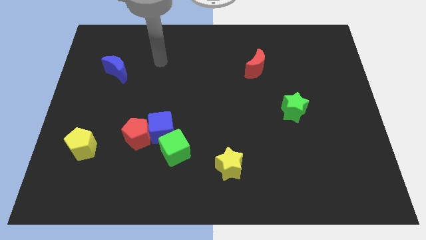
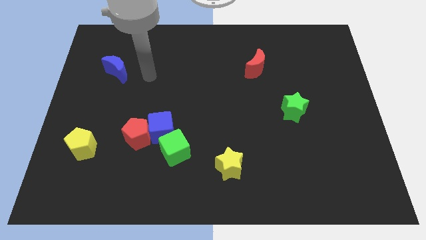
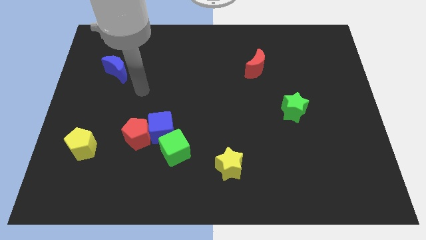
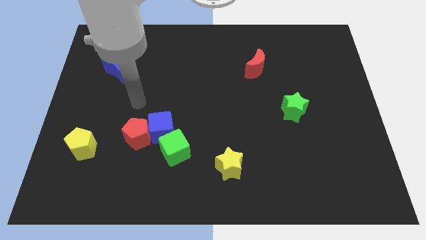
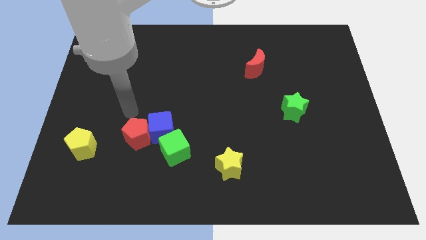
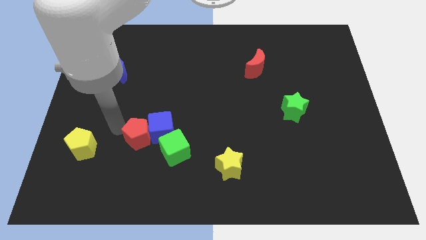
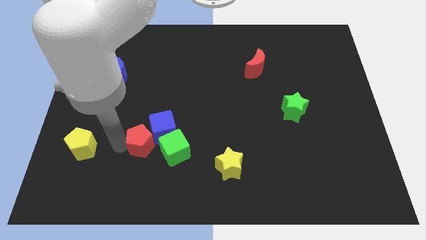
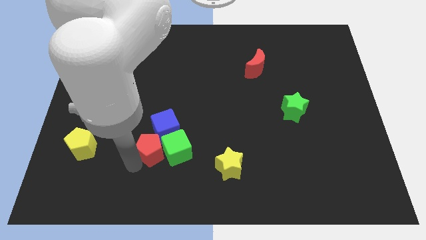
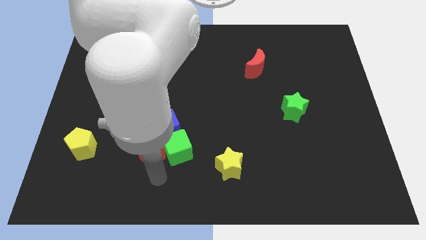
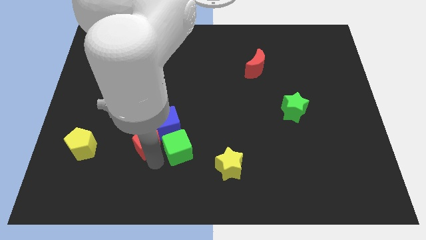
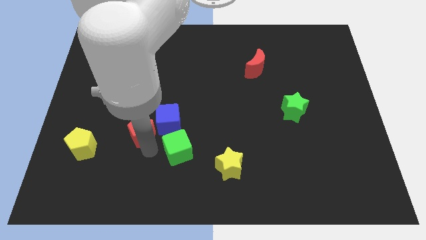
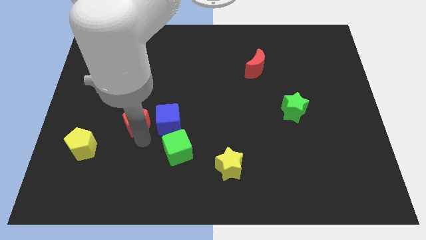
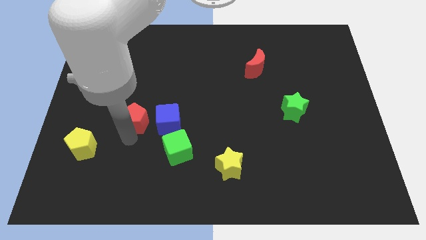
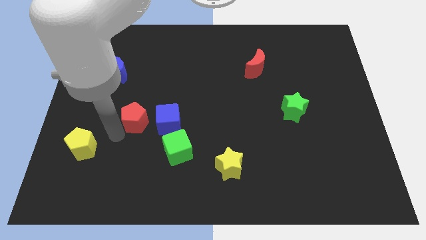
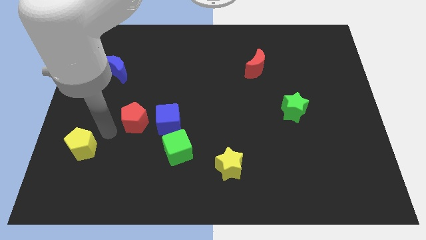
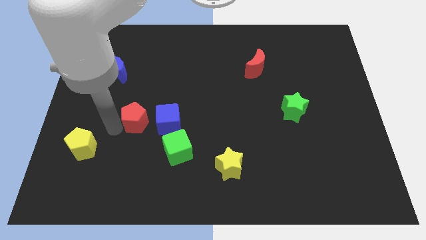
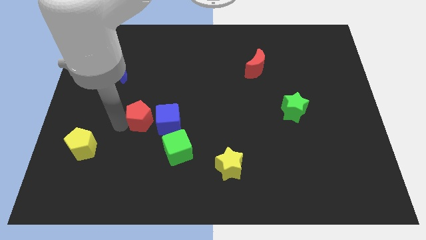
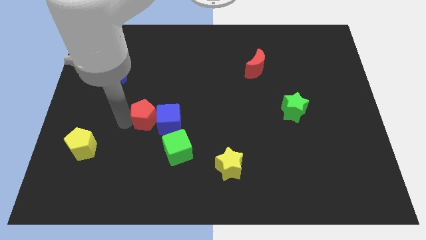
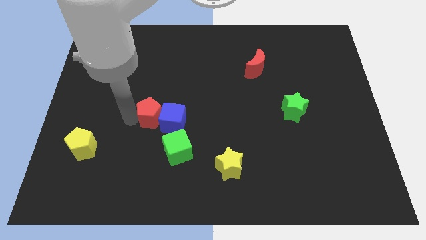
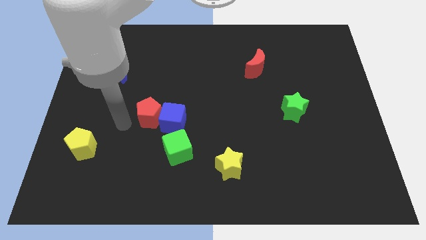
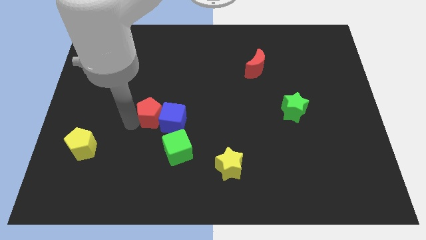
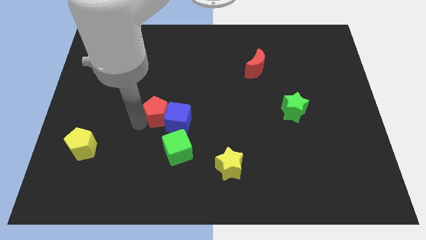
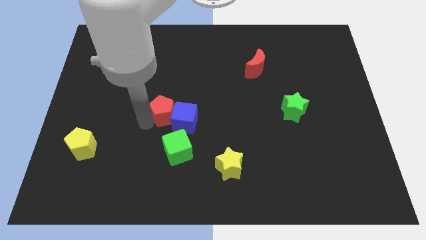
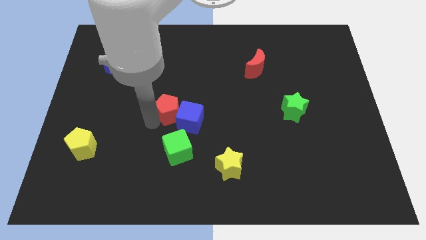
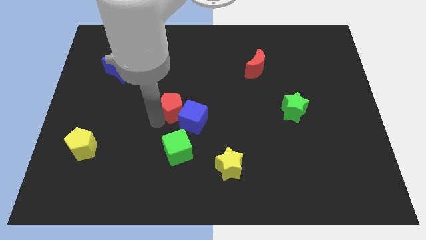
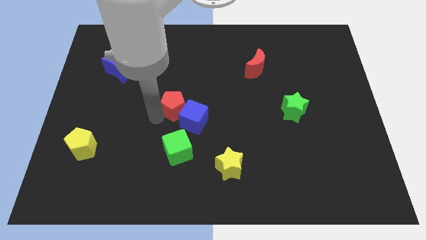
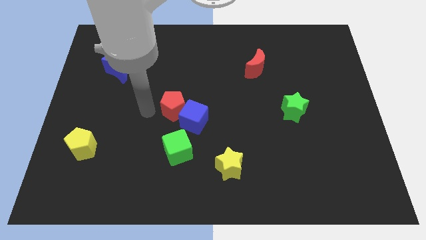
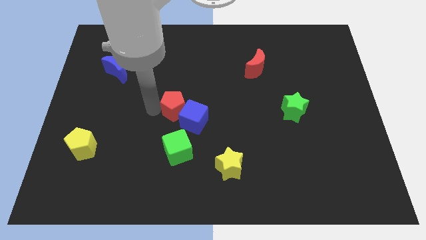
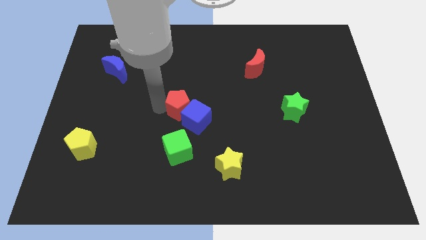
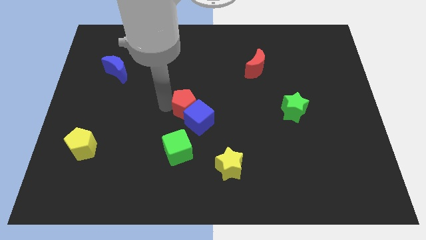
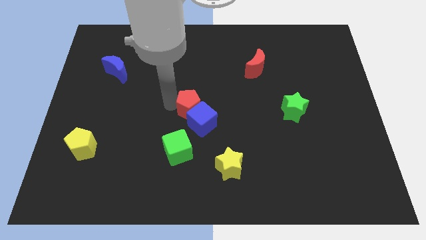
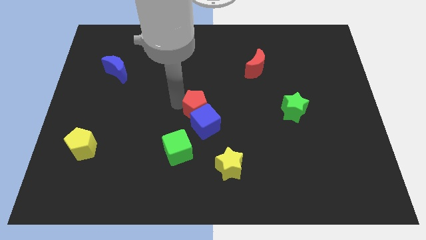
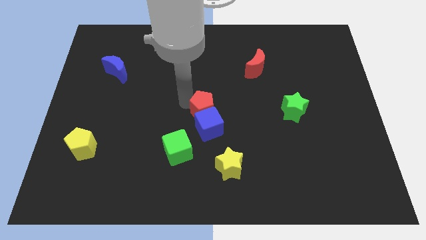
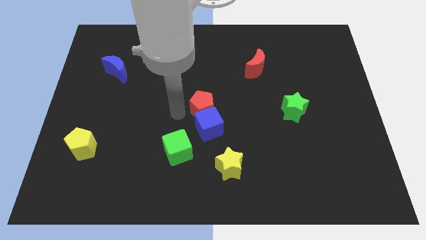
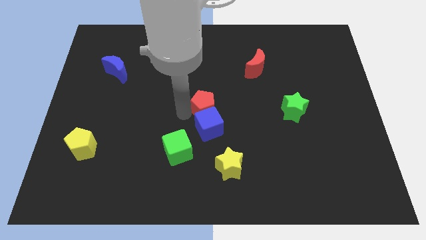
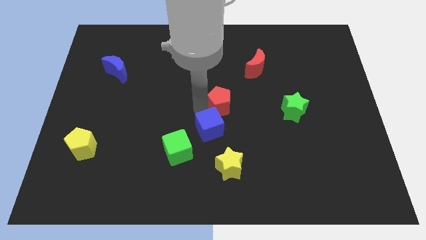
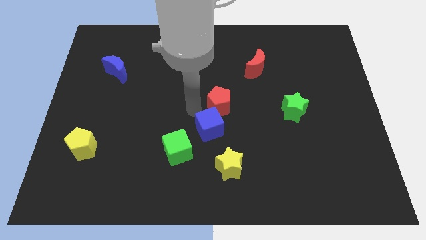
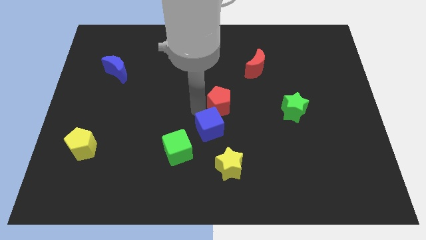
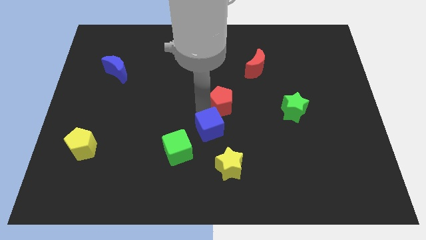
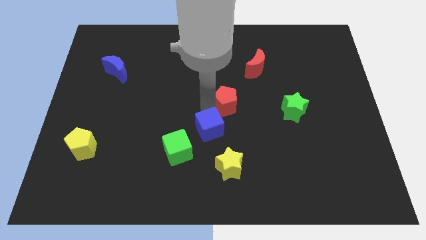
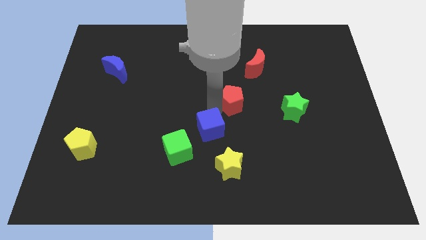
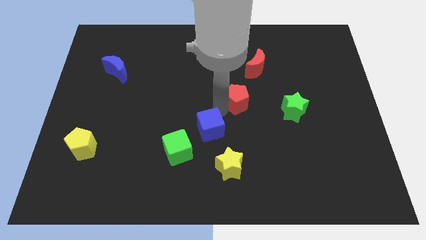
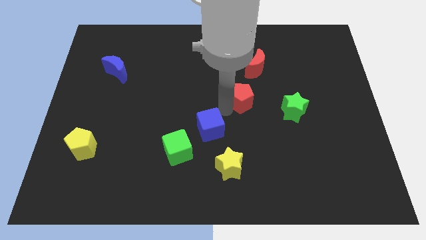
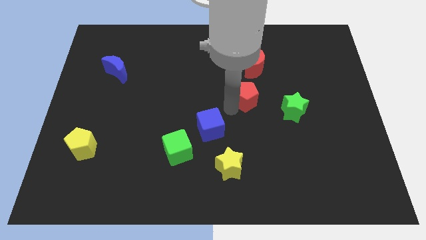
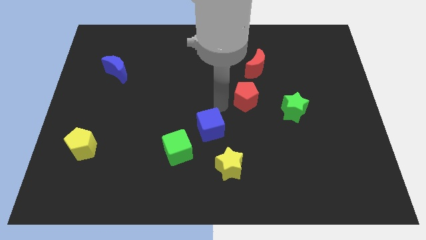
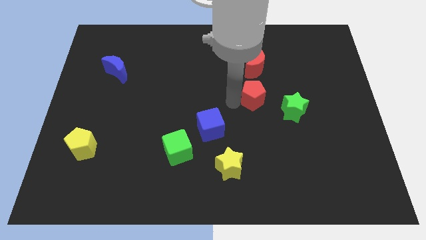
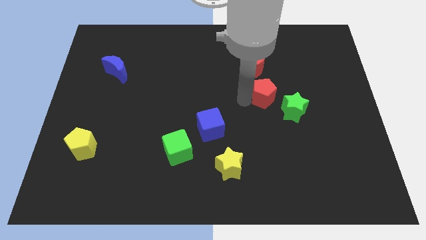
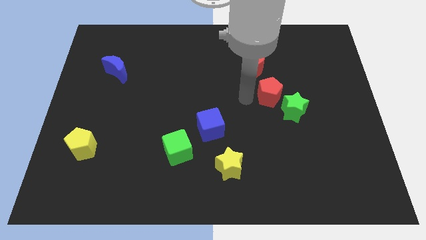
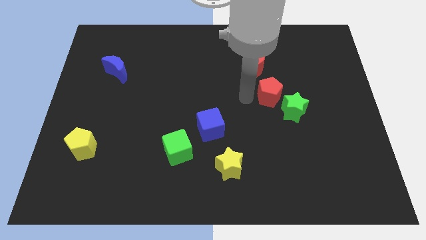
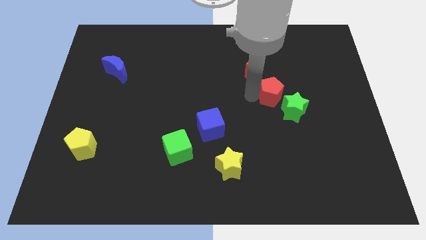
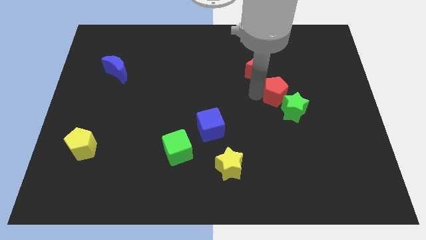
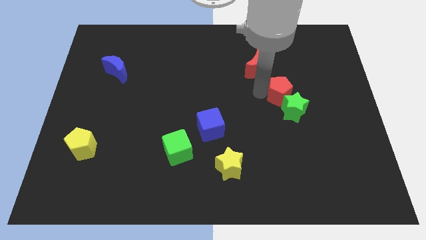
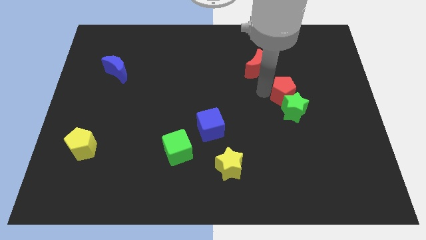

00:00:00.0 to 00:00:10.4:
put the red pentagon to the top right side of the green star

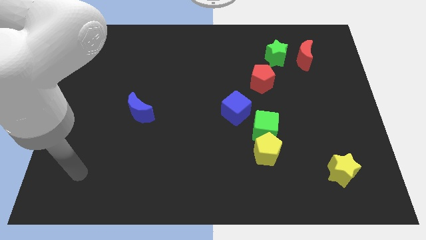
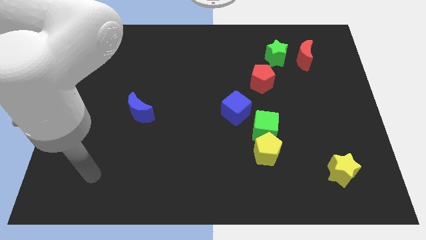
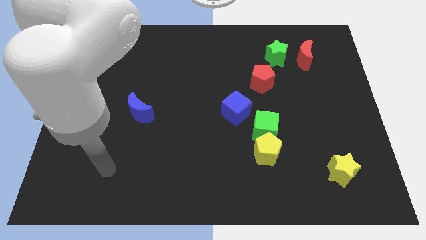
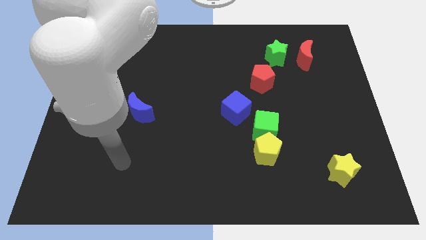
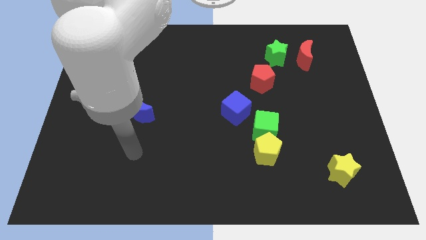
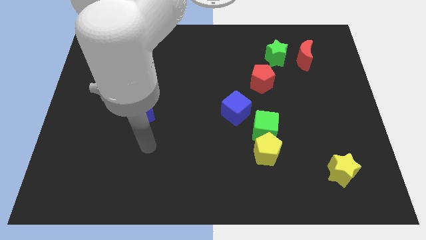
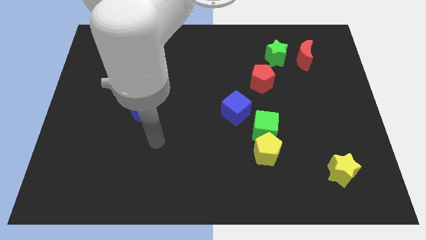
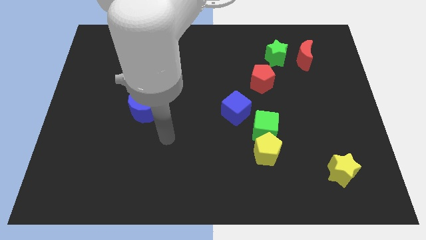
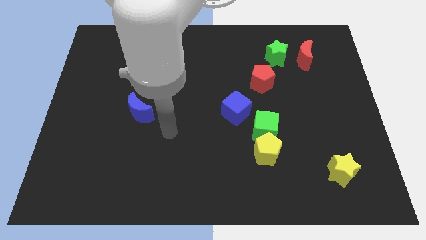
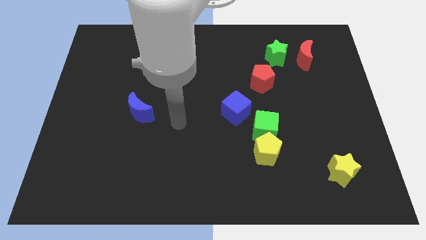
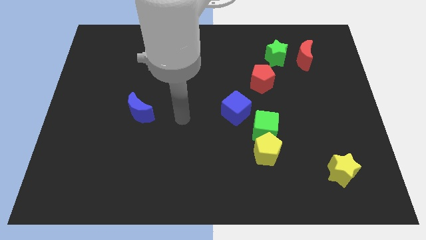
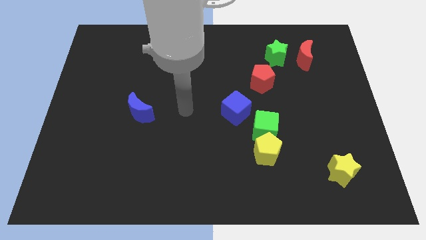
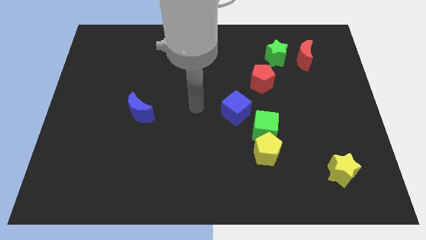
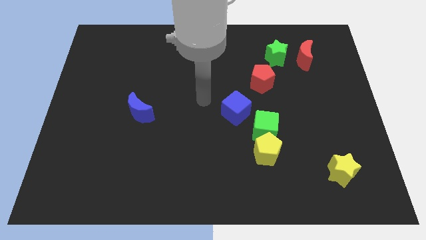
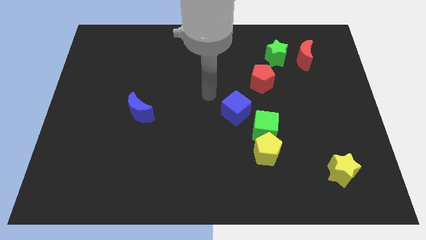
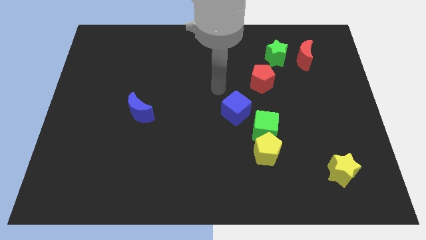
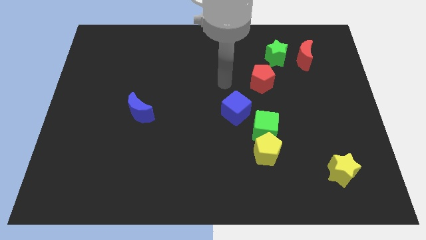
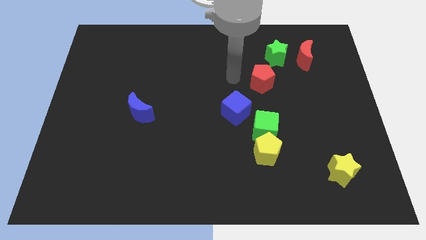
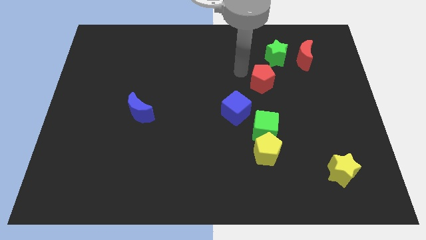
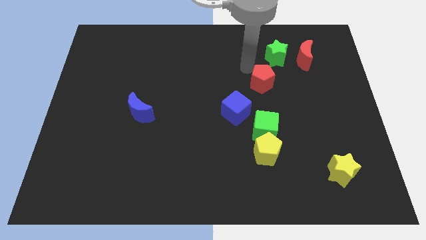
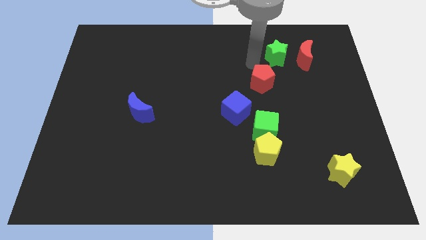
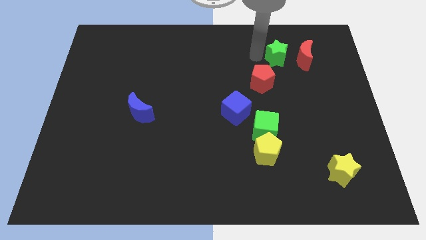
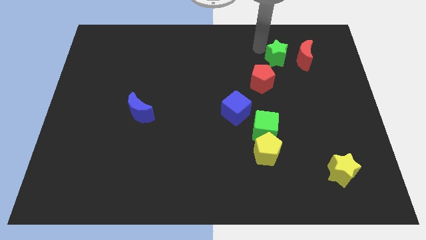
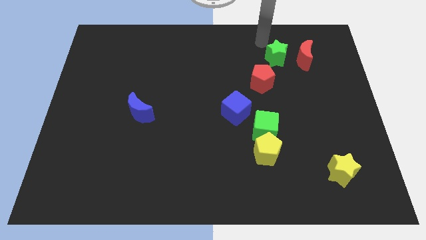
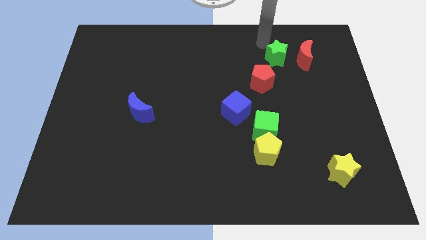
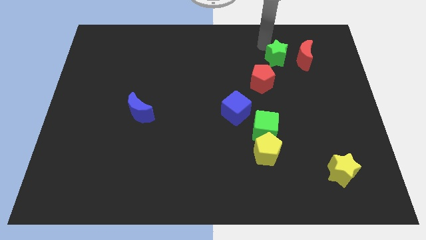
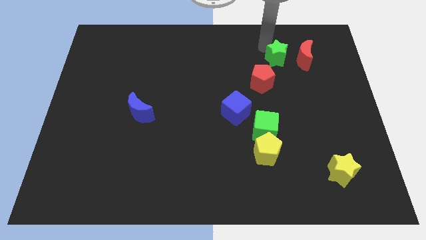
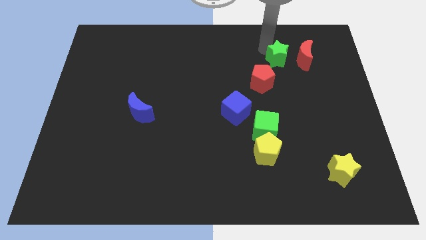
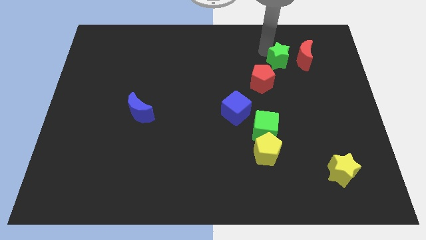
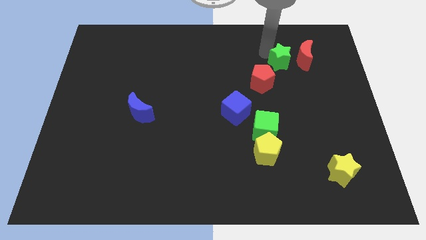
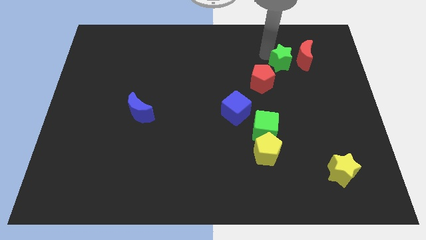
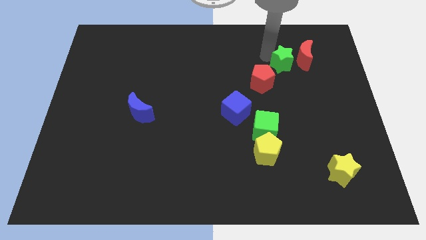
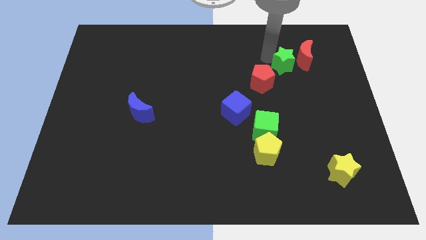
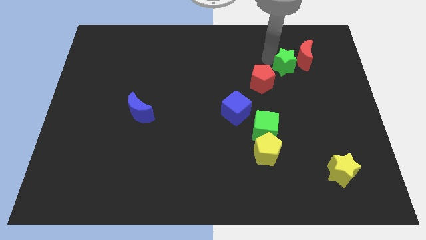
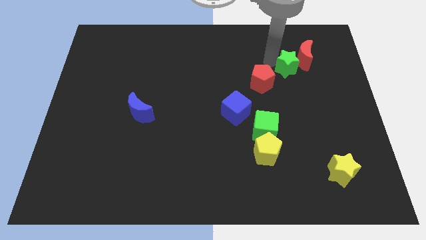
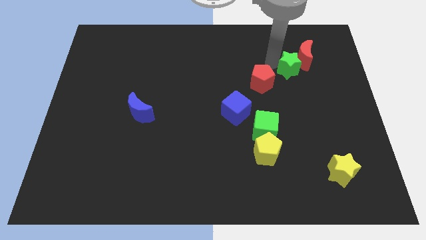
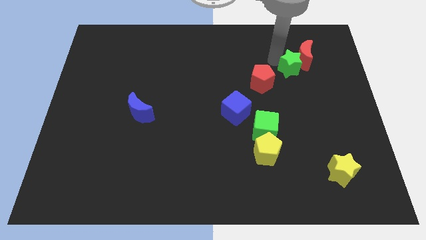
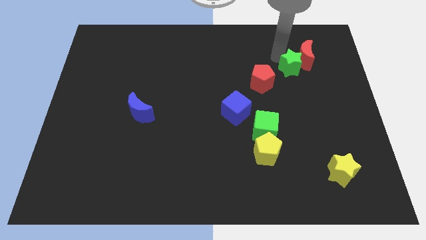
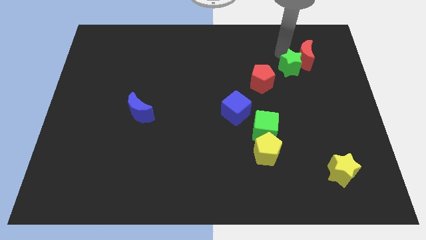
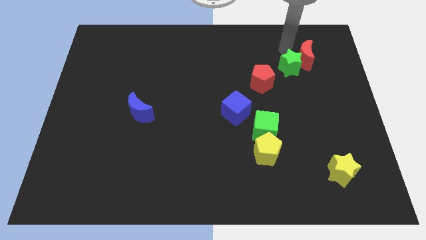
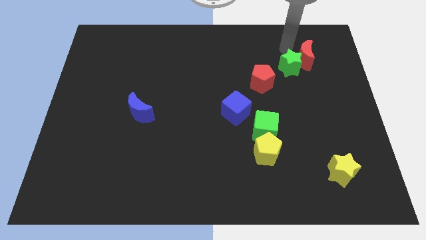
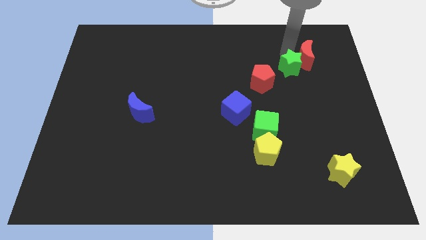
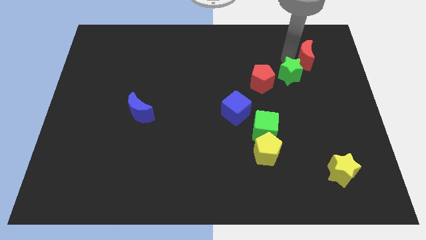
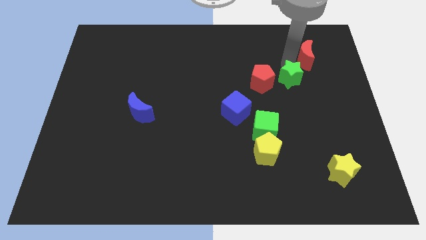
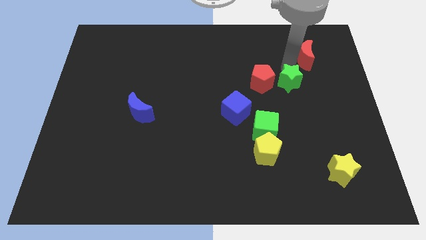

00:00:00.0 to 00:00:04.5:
push the green star to the bottom right of the red pentagon
